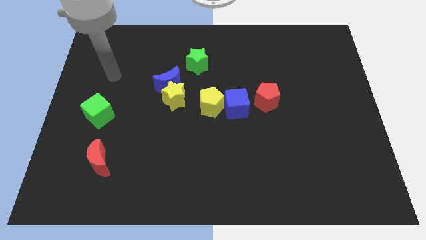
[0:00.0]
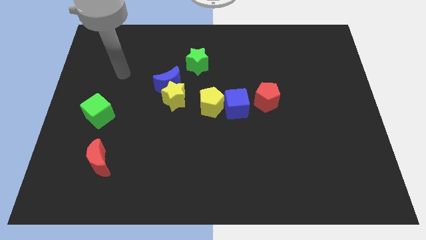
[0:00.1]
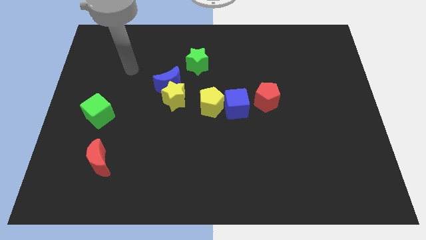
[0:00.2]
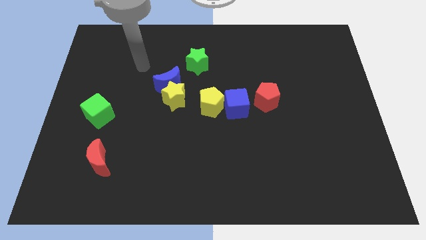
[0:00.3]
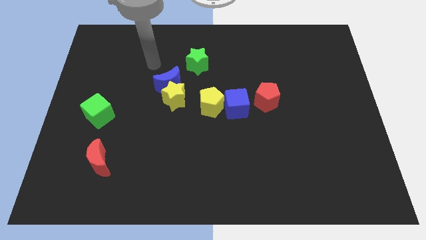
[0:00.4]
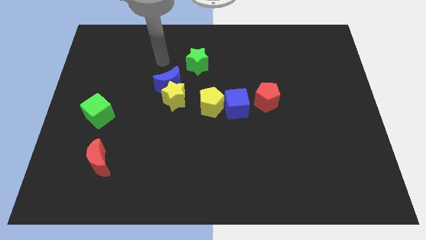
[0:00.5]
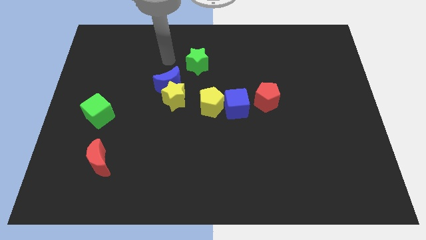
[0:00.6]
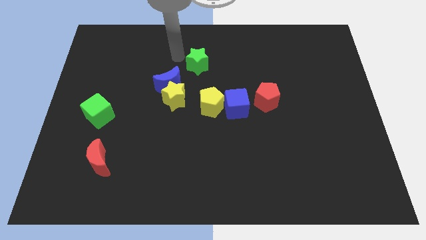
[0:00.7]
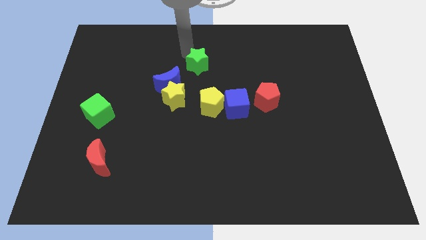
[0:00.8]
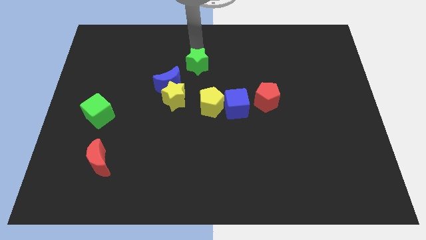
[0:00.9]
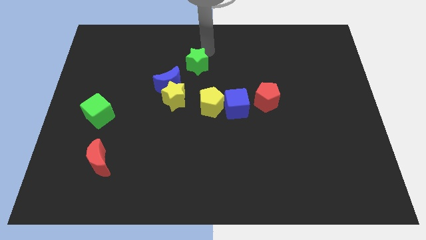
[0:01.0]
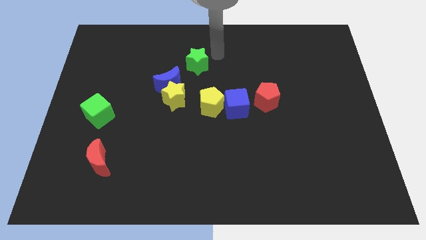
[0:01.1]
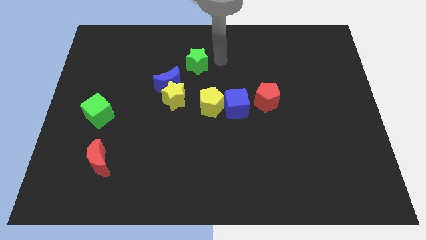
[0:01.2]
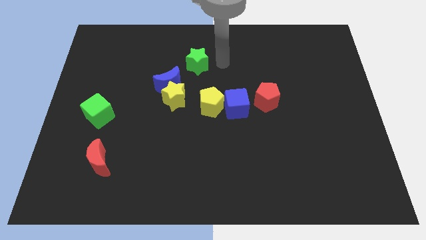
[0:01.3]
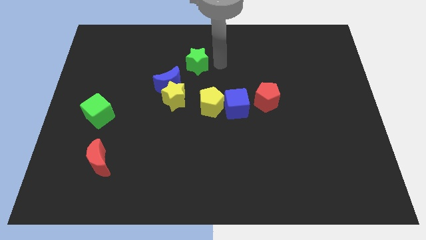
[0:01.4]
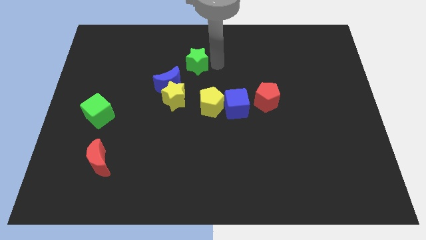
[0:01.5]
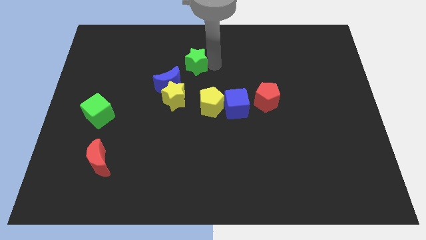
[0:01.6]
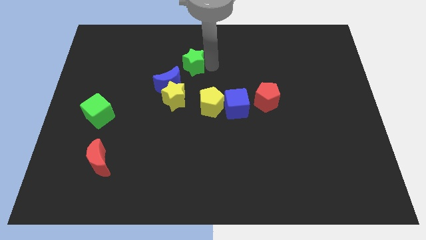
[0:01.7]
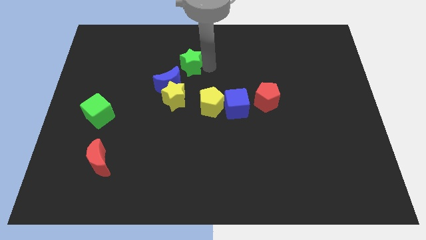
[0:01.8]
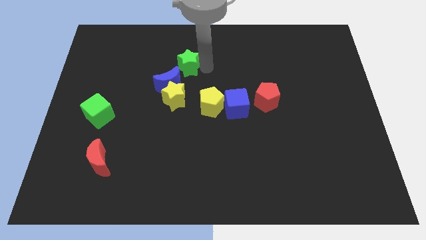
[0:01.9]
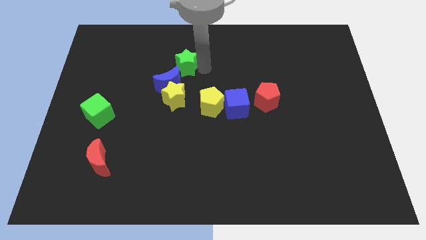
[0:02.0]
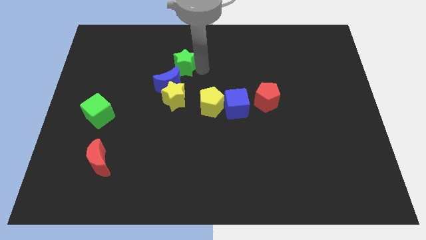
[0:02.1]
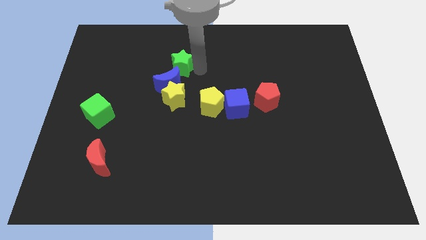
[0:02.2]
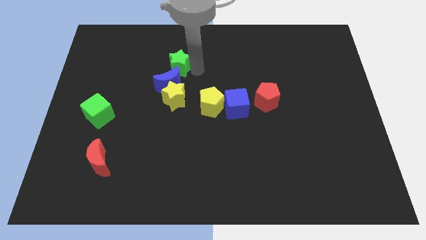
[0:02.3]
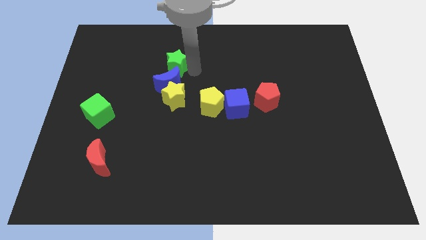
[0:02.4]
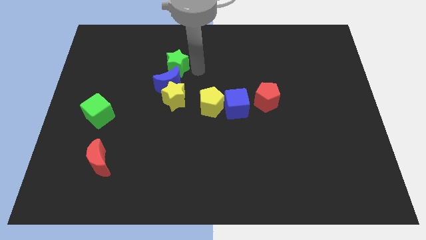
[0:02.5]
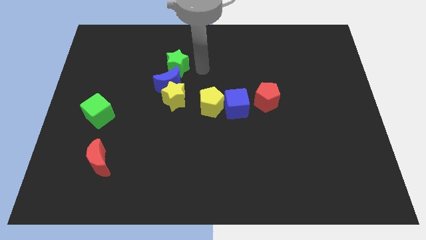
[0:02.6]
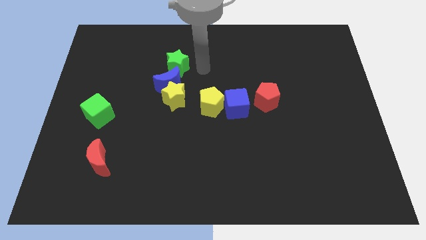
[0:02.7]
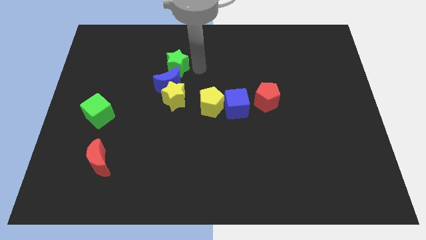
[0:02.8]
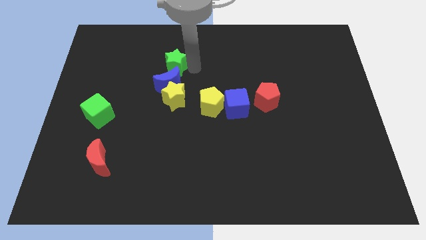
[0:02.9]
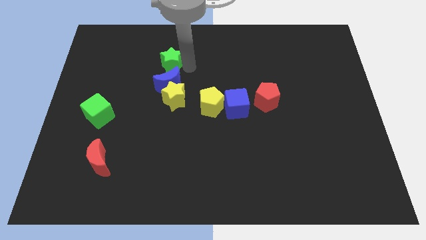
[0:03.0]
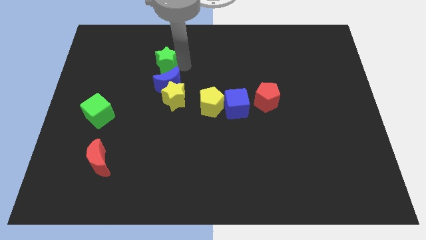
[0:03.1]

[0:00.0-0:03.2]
push the green star to the left a little bit

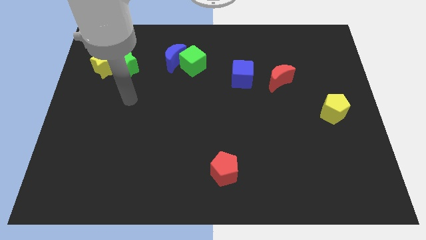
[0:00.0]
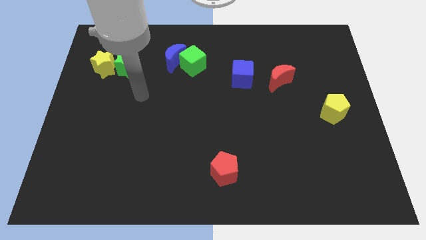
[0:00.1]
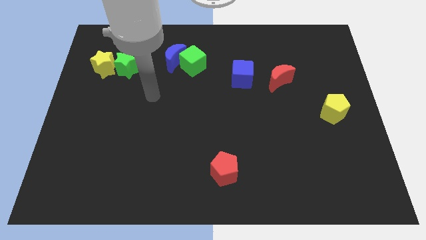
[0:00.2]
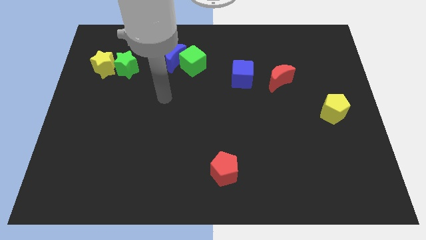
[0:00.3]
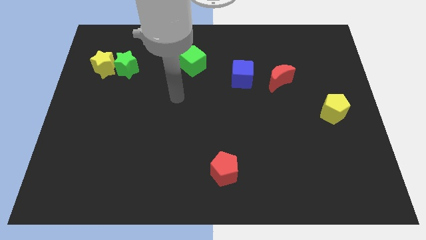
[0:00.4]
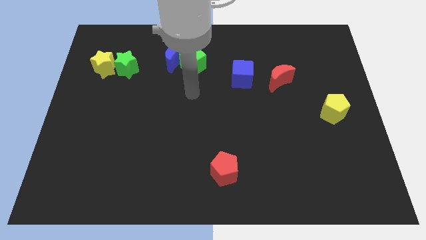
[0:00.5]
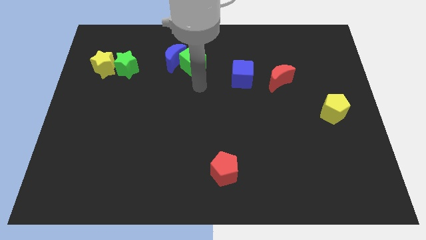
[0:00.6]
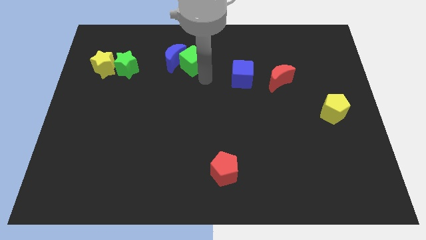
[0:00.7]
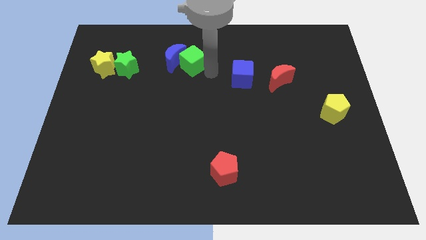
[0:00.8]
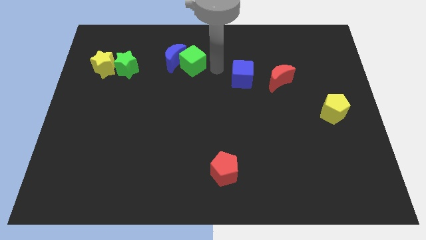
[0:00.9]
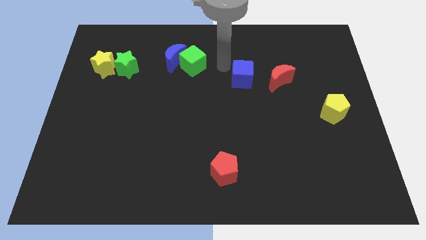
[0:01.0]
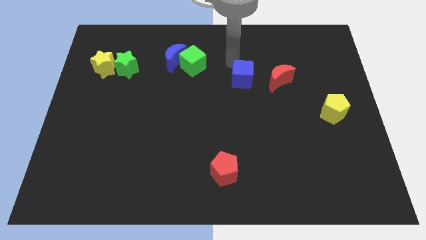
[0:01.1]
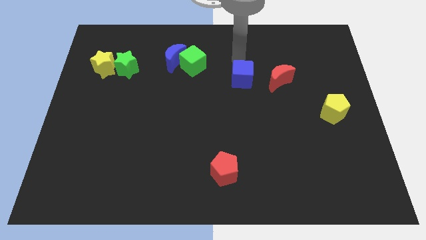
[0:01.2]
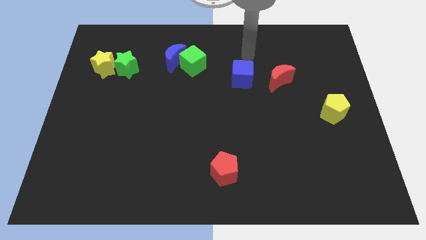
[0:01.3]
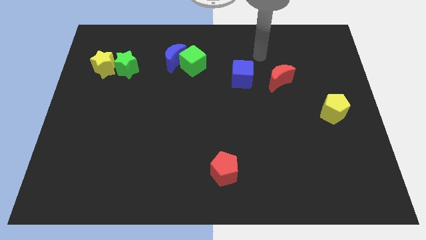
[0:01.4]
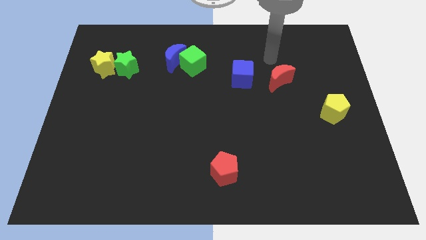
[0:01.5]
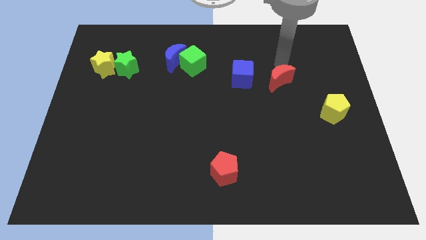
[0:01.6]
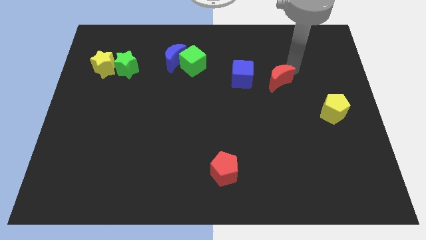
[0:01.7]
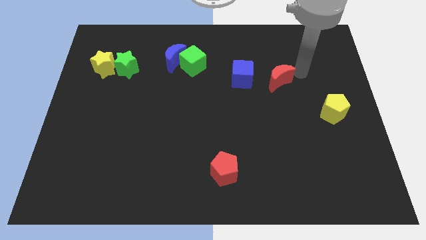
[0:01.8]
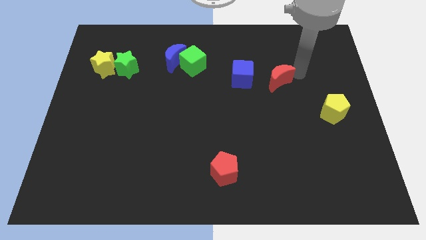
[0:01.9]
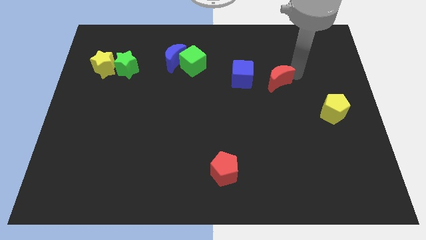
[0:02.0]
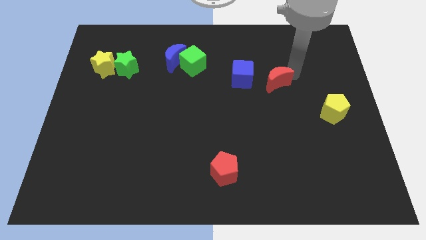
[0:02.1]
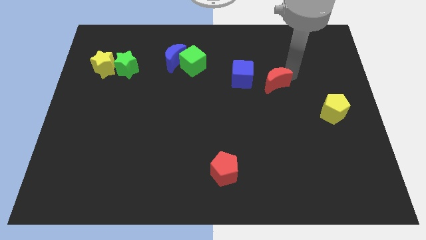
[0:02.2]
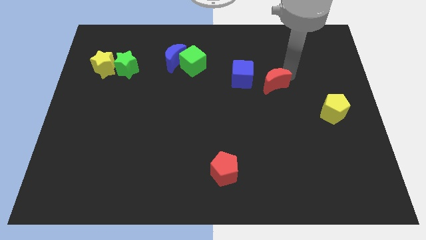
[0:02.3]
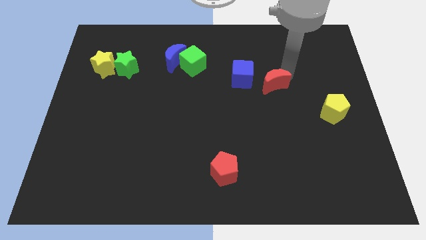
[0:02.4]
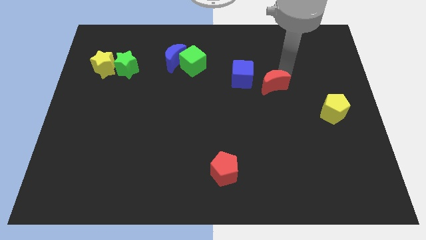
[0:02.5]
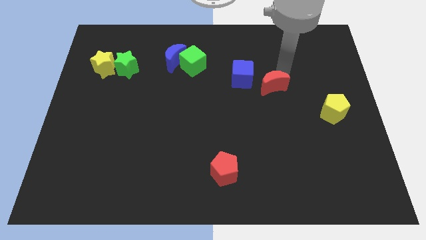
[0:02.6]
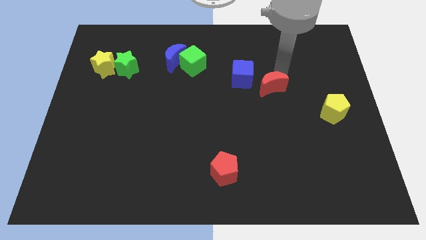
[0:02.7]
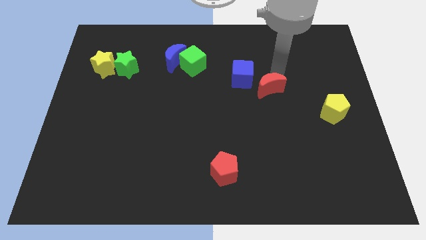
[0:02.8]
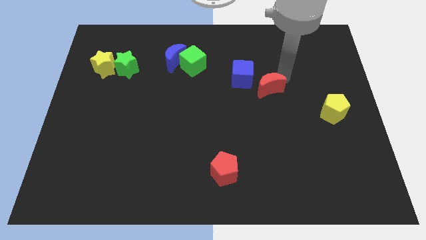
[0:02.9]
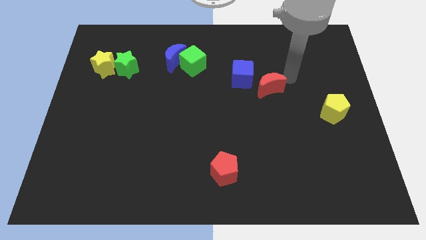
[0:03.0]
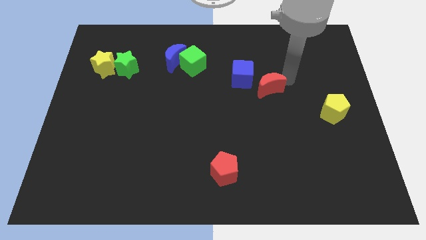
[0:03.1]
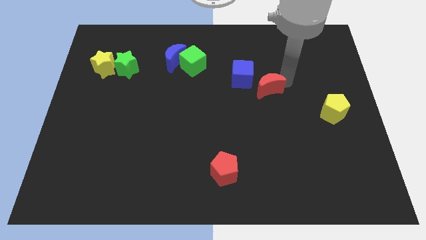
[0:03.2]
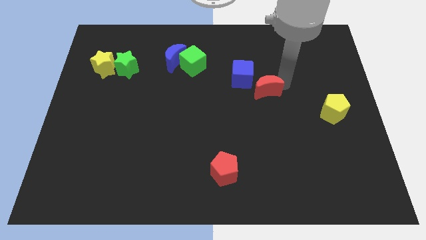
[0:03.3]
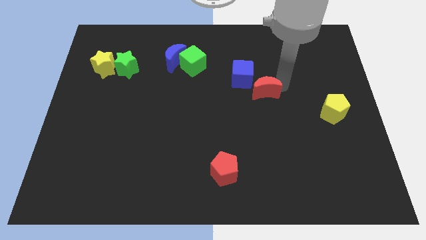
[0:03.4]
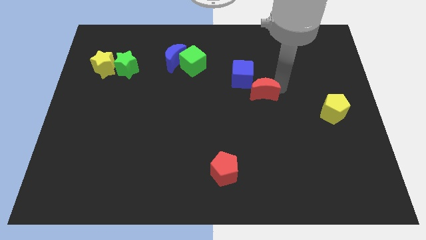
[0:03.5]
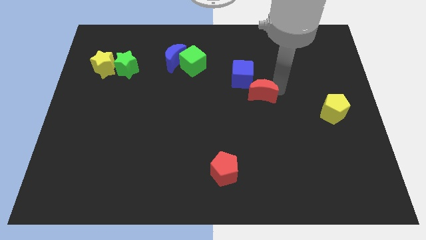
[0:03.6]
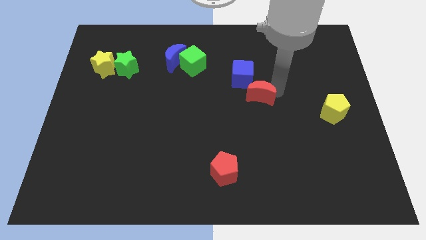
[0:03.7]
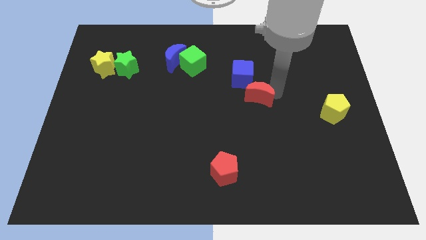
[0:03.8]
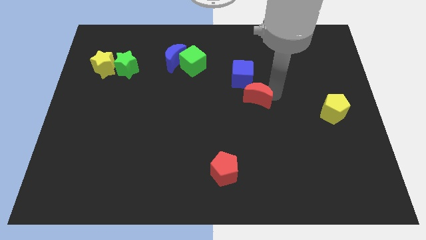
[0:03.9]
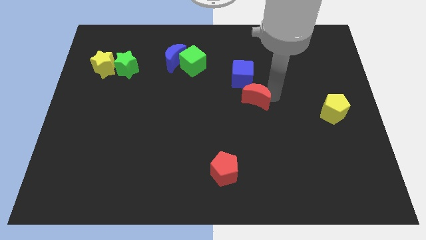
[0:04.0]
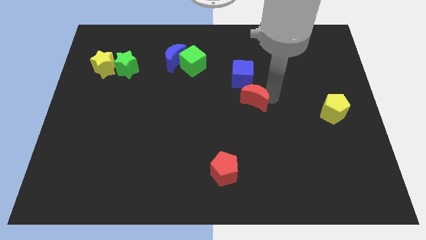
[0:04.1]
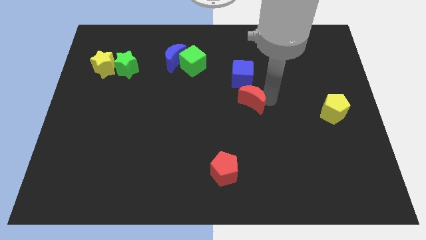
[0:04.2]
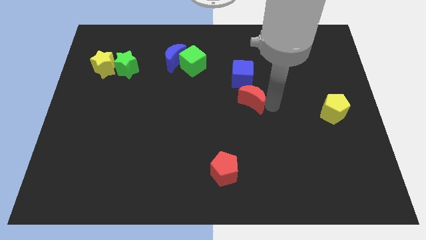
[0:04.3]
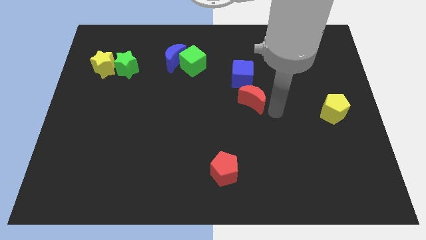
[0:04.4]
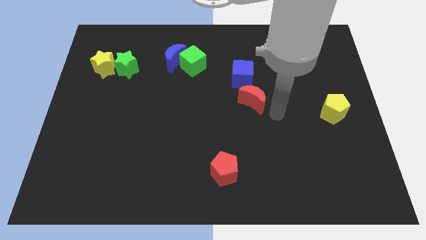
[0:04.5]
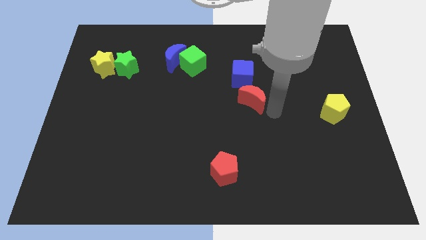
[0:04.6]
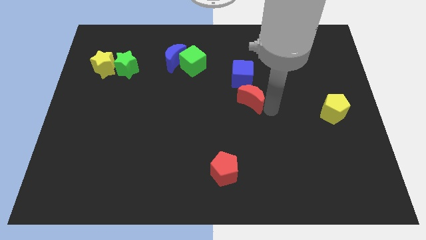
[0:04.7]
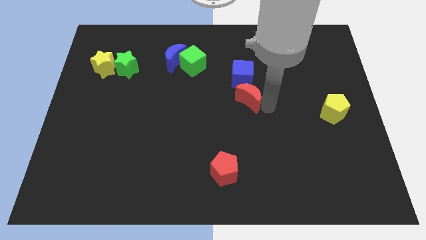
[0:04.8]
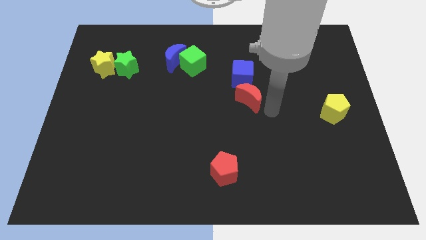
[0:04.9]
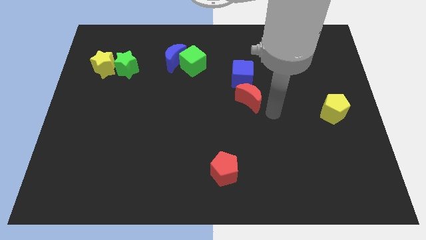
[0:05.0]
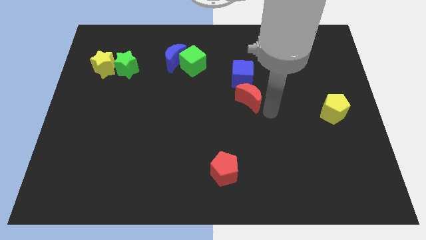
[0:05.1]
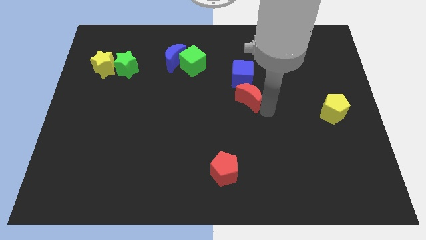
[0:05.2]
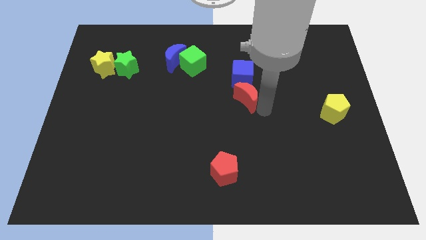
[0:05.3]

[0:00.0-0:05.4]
slightly move the red moon to the left
